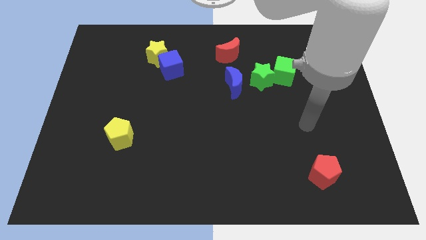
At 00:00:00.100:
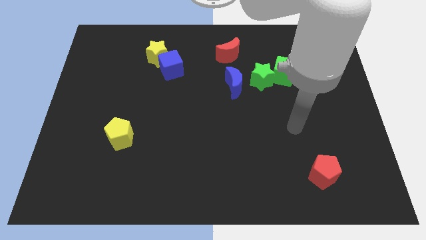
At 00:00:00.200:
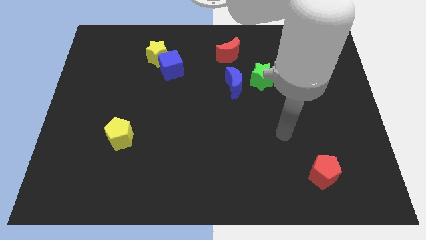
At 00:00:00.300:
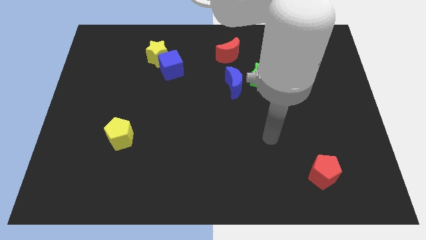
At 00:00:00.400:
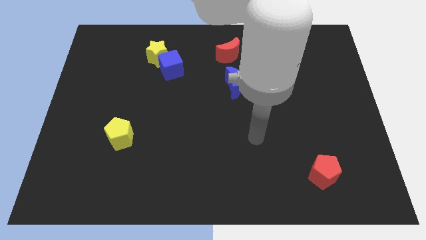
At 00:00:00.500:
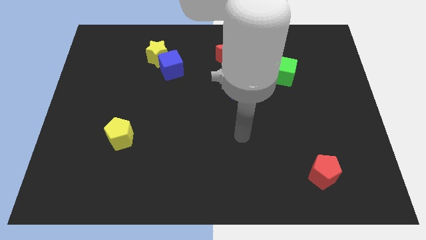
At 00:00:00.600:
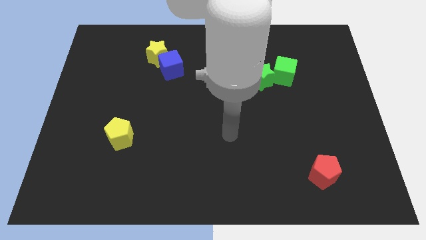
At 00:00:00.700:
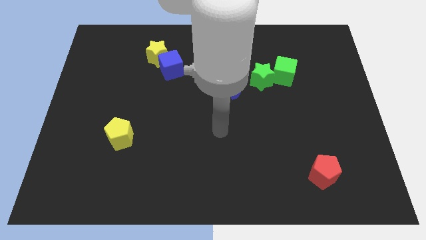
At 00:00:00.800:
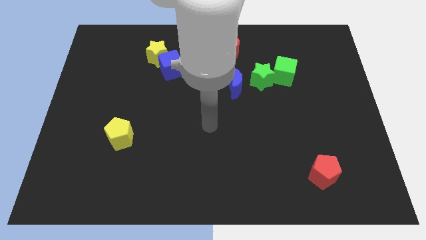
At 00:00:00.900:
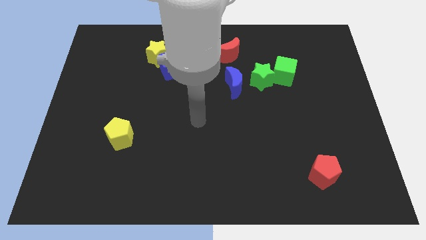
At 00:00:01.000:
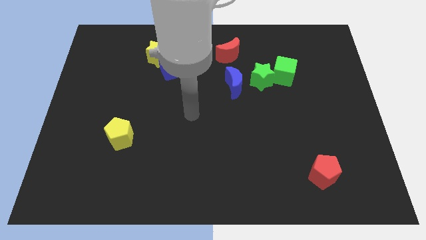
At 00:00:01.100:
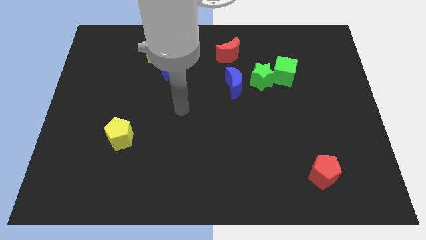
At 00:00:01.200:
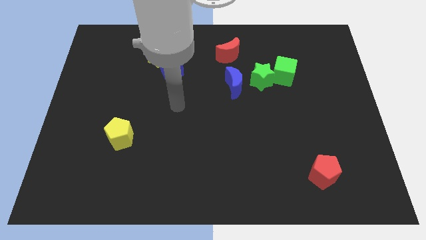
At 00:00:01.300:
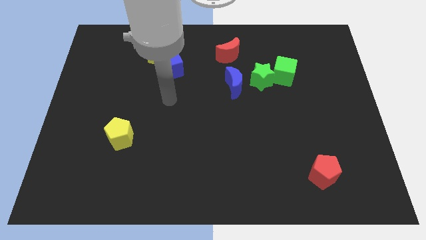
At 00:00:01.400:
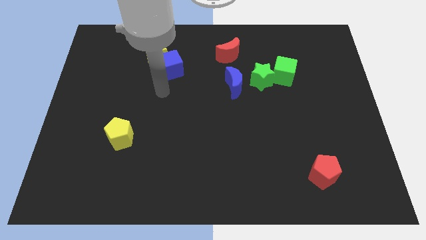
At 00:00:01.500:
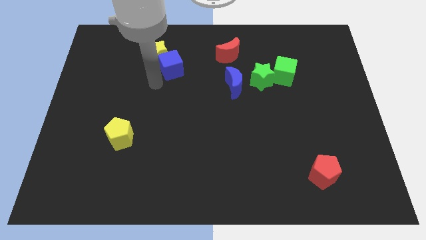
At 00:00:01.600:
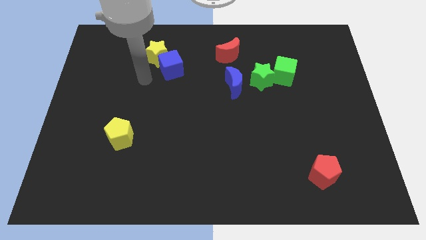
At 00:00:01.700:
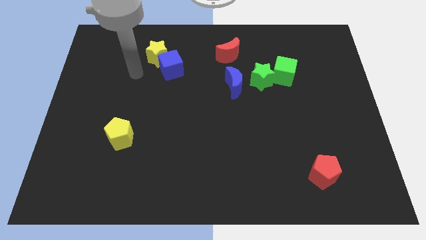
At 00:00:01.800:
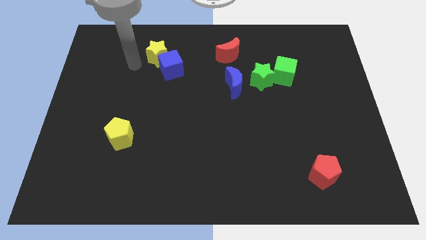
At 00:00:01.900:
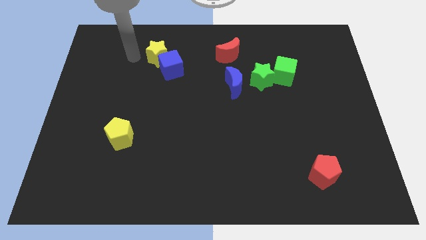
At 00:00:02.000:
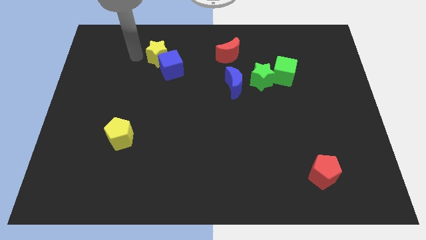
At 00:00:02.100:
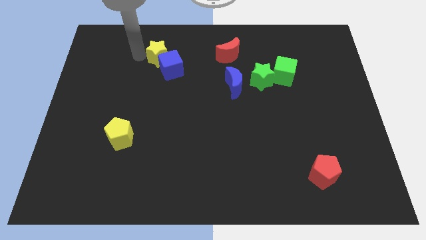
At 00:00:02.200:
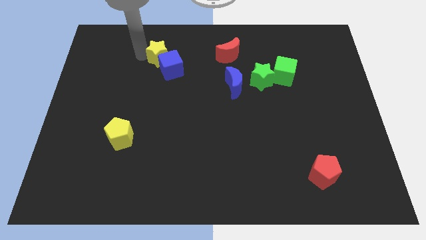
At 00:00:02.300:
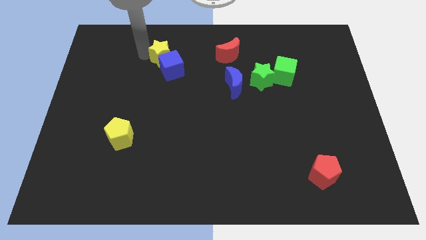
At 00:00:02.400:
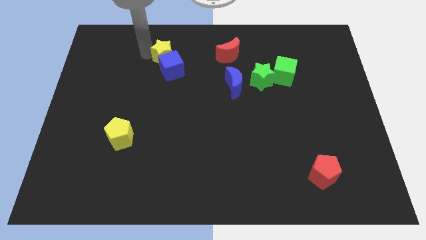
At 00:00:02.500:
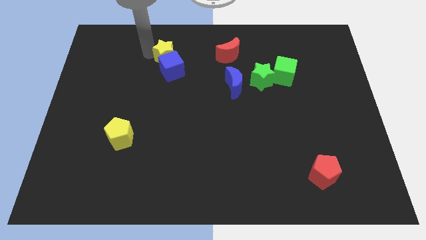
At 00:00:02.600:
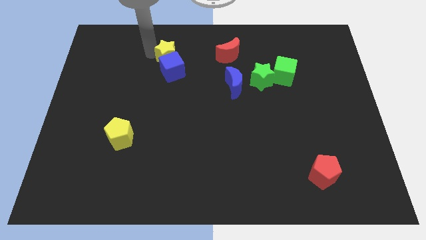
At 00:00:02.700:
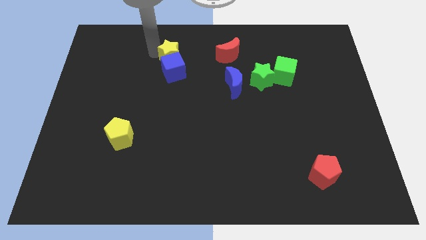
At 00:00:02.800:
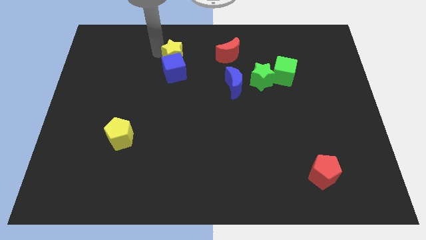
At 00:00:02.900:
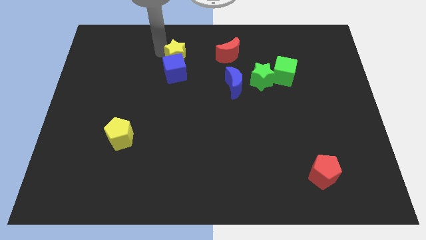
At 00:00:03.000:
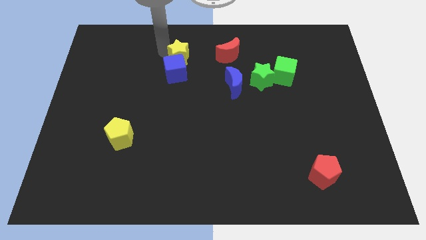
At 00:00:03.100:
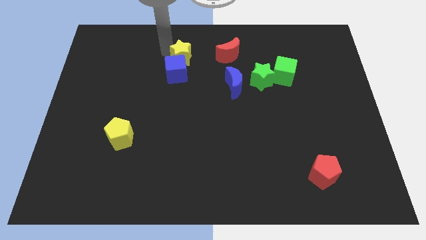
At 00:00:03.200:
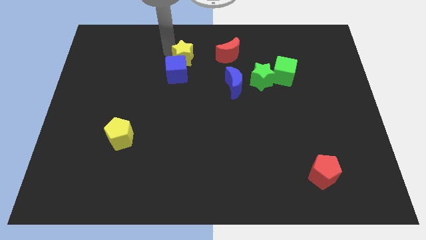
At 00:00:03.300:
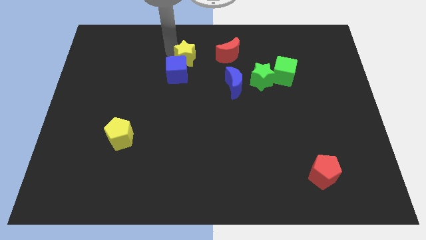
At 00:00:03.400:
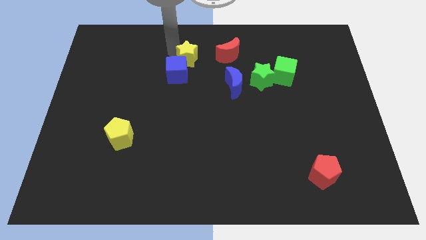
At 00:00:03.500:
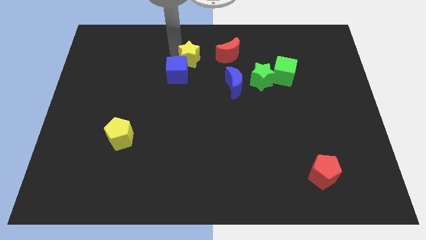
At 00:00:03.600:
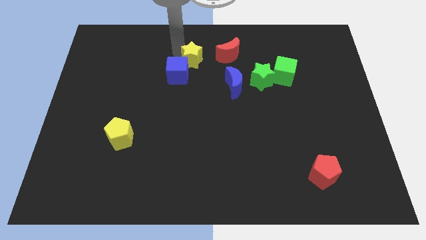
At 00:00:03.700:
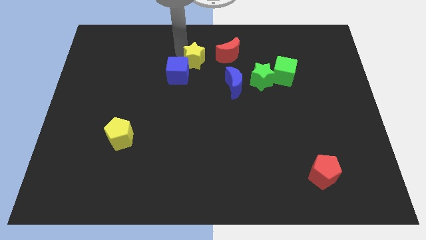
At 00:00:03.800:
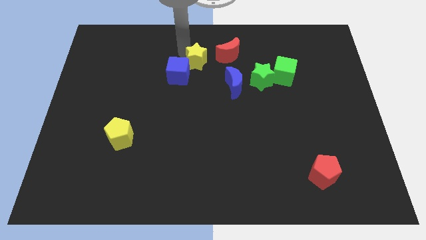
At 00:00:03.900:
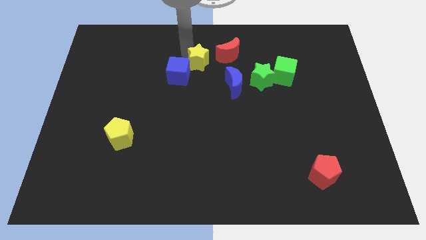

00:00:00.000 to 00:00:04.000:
push the yellow star diagonally down and right a little

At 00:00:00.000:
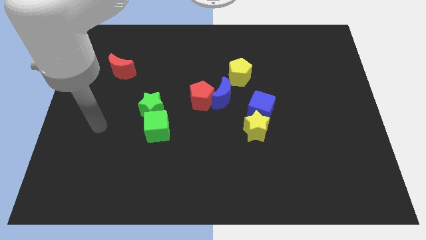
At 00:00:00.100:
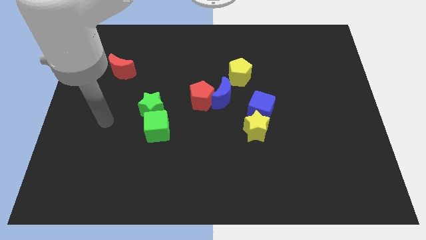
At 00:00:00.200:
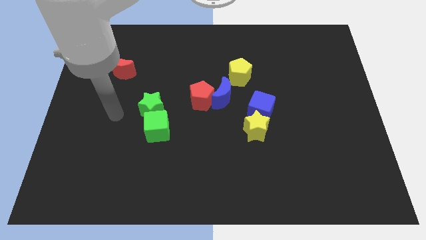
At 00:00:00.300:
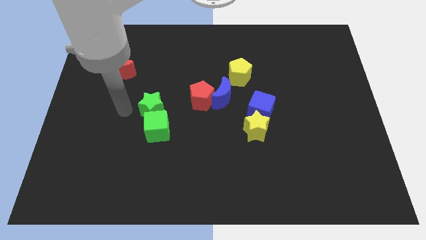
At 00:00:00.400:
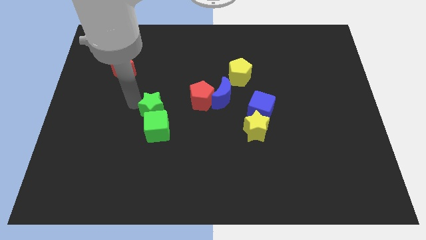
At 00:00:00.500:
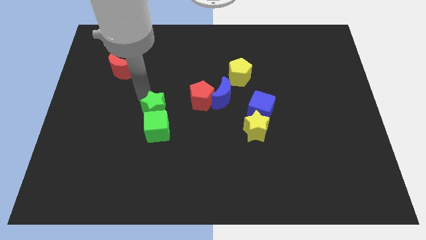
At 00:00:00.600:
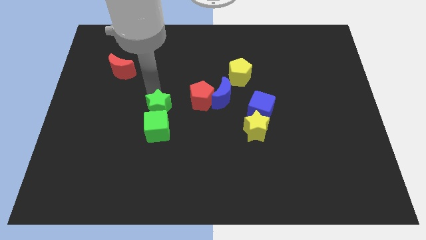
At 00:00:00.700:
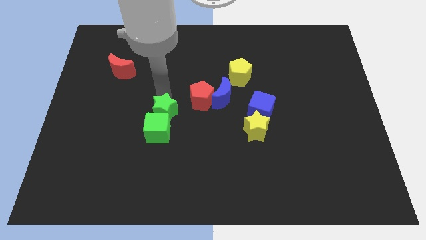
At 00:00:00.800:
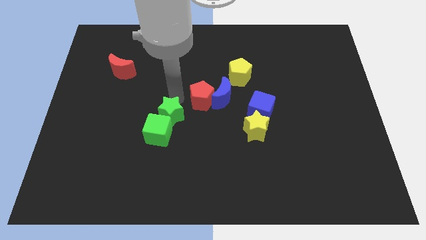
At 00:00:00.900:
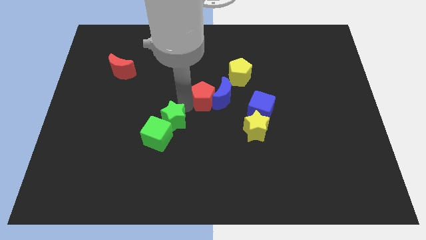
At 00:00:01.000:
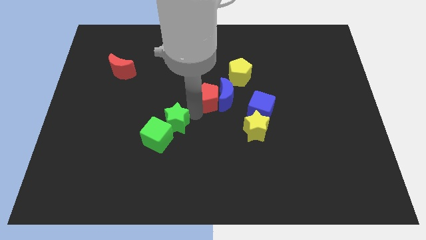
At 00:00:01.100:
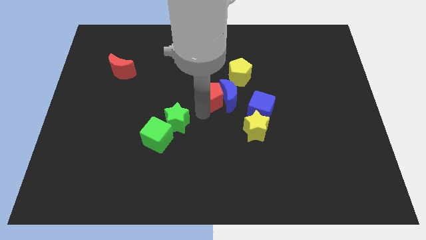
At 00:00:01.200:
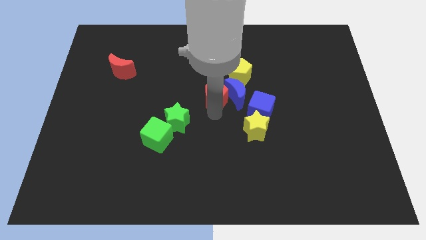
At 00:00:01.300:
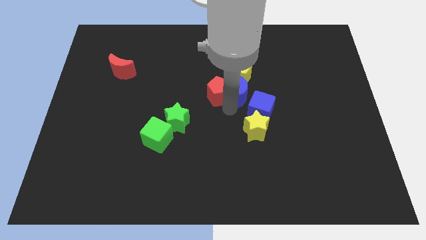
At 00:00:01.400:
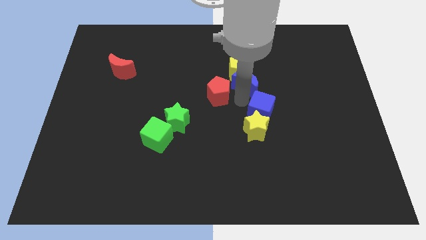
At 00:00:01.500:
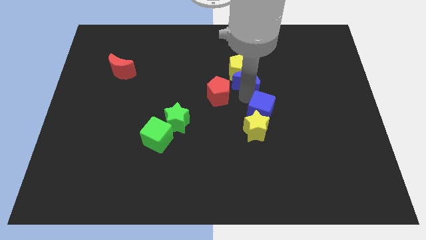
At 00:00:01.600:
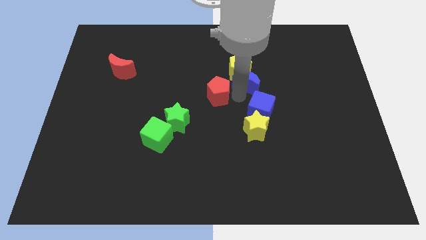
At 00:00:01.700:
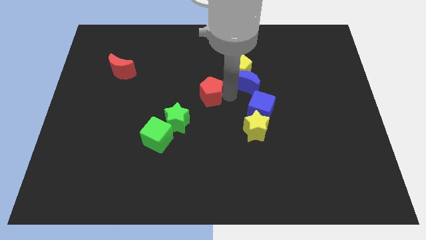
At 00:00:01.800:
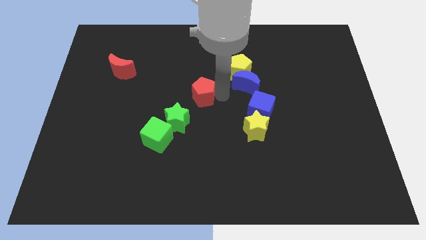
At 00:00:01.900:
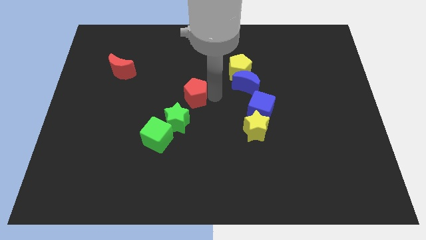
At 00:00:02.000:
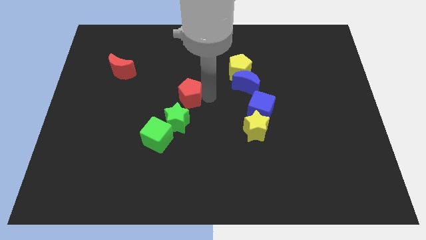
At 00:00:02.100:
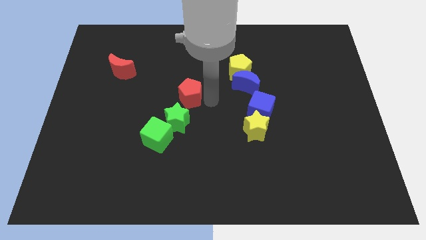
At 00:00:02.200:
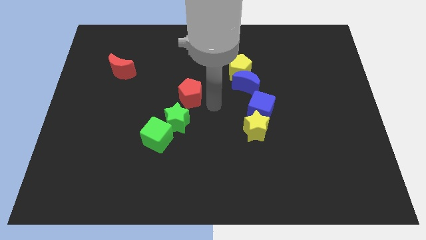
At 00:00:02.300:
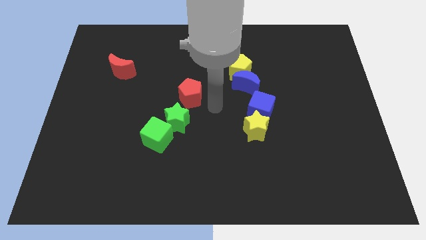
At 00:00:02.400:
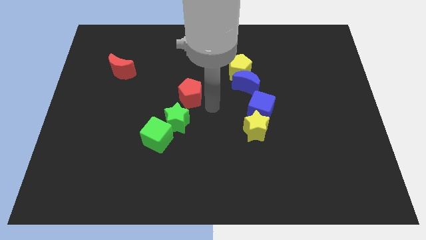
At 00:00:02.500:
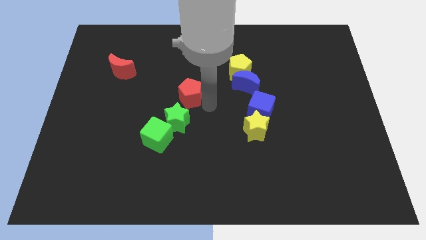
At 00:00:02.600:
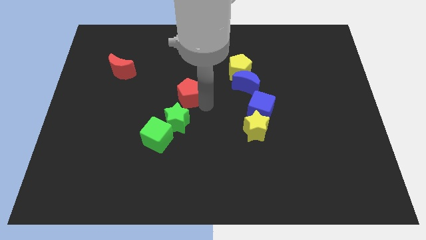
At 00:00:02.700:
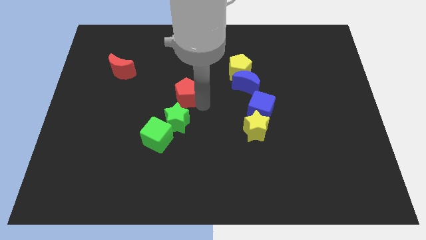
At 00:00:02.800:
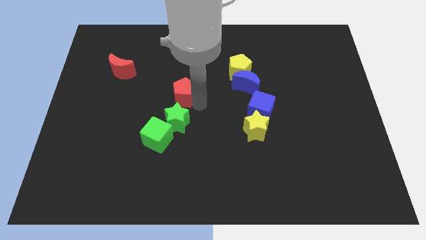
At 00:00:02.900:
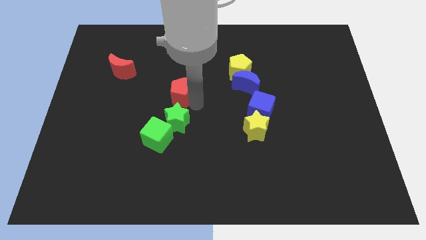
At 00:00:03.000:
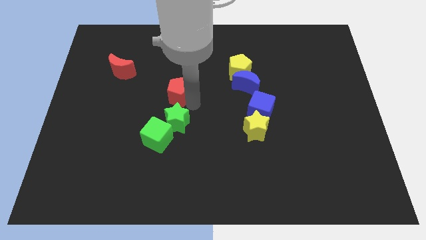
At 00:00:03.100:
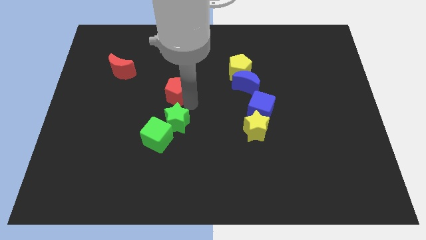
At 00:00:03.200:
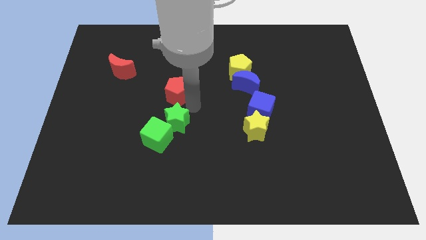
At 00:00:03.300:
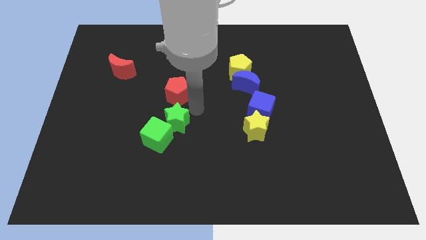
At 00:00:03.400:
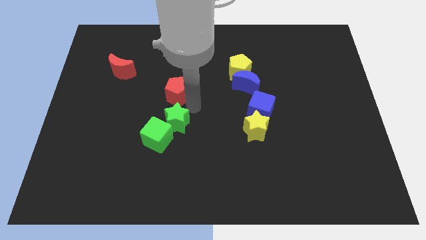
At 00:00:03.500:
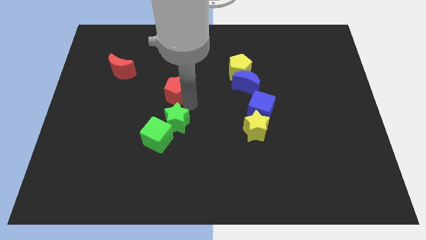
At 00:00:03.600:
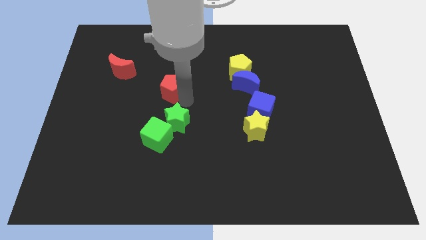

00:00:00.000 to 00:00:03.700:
slightly slide the red pentagon to the left

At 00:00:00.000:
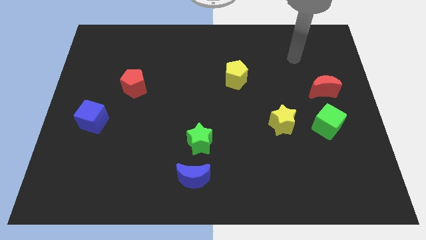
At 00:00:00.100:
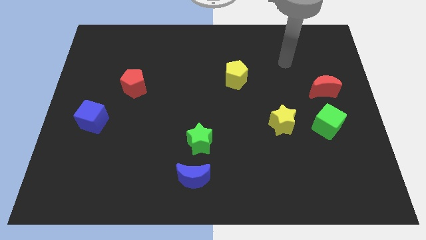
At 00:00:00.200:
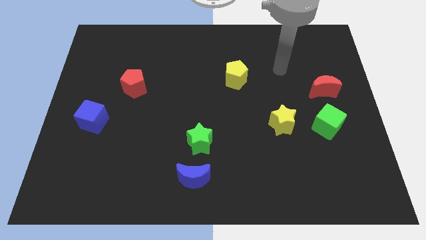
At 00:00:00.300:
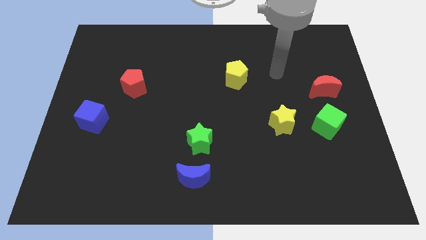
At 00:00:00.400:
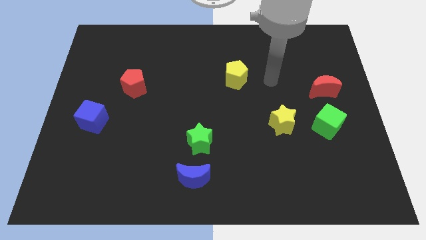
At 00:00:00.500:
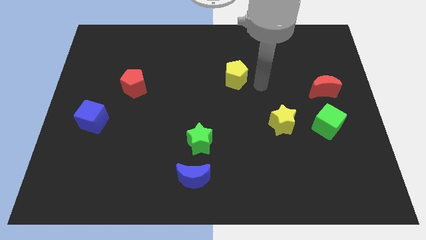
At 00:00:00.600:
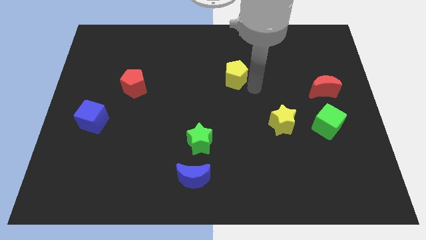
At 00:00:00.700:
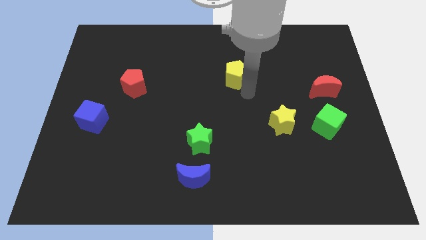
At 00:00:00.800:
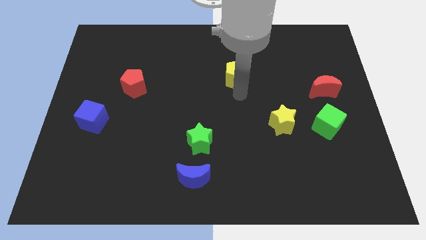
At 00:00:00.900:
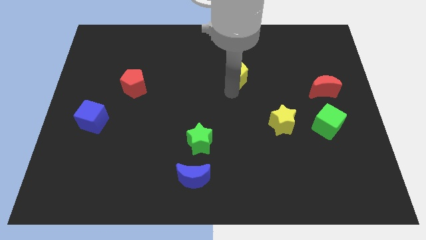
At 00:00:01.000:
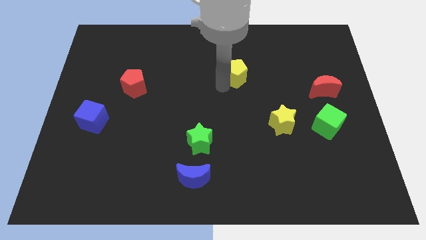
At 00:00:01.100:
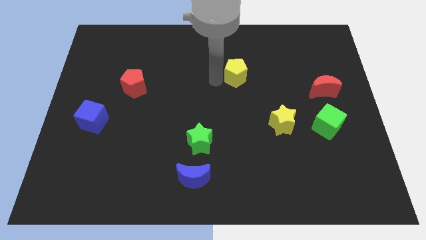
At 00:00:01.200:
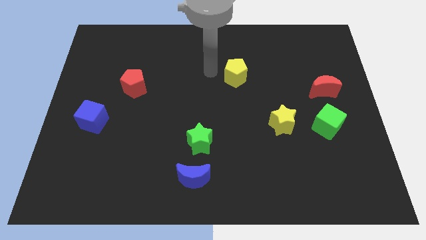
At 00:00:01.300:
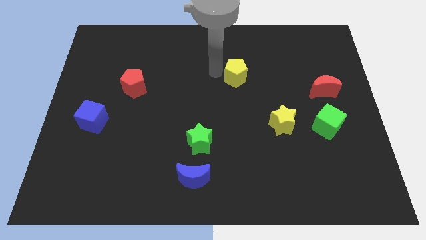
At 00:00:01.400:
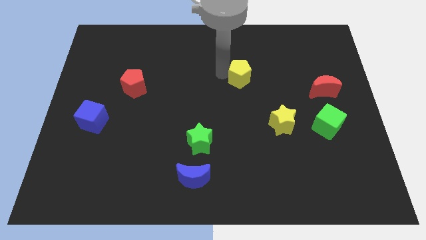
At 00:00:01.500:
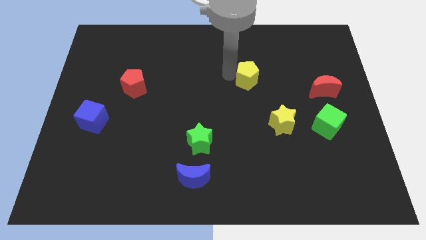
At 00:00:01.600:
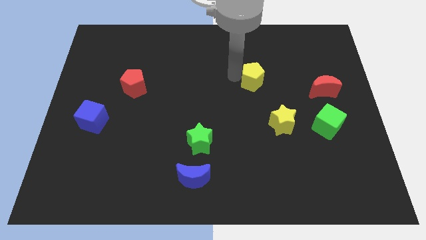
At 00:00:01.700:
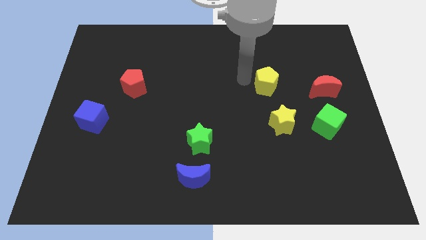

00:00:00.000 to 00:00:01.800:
move the yellow pentagon to the right a bit
